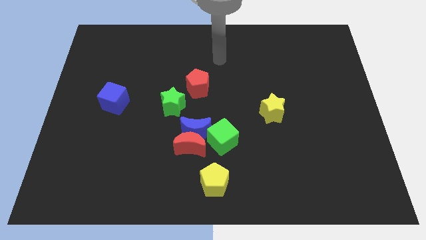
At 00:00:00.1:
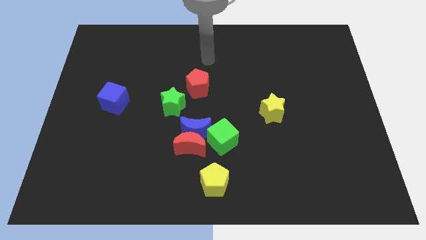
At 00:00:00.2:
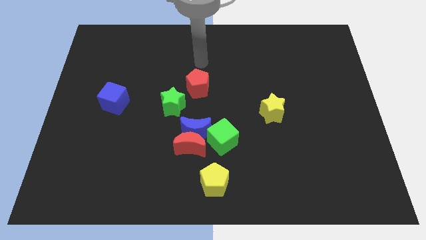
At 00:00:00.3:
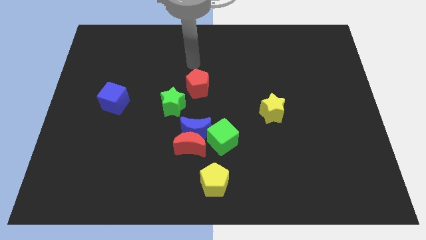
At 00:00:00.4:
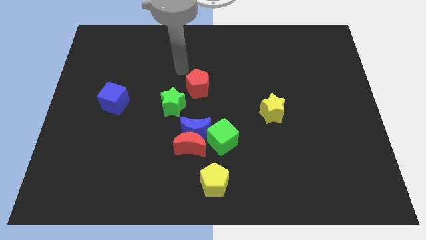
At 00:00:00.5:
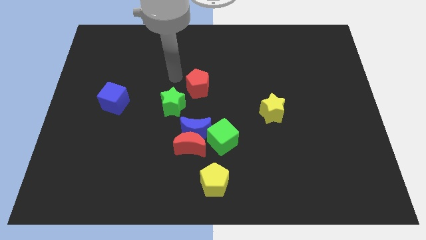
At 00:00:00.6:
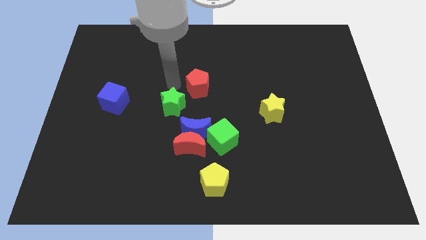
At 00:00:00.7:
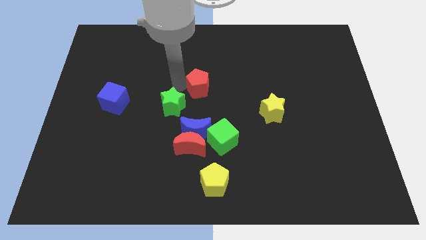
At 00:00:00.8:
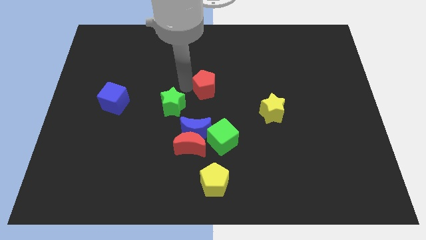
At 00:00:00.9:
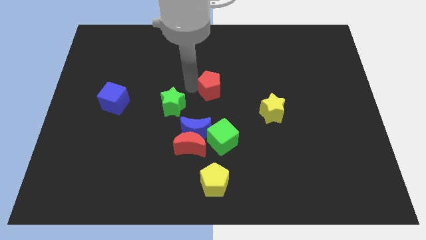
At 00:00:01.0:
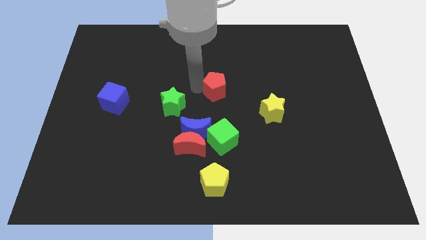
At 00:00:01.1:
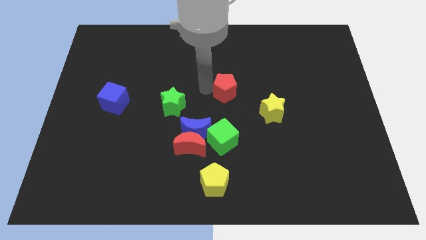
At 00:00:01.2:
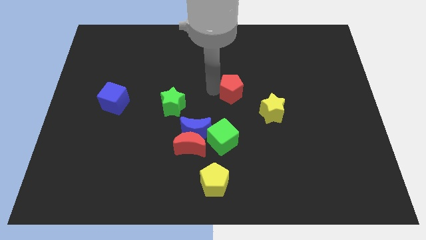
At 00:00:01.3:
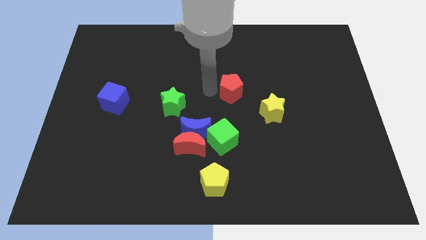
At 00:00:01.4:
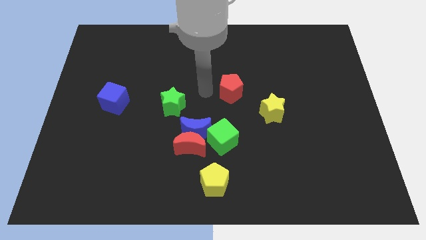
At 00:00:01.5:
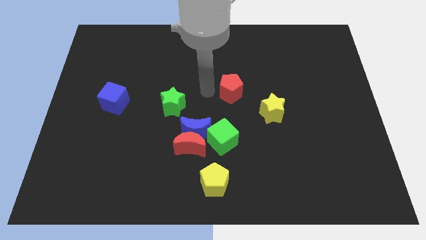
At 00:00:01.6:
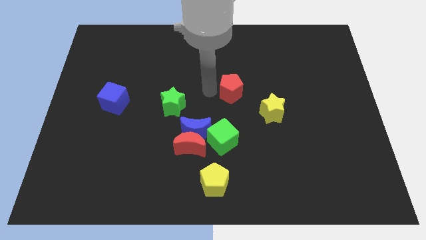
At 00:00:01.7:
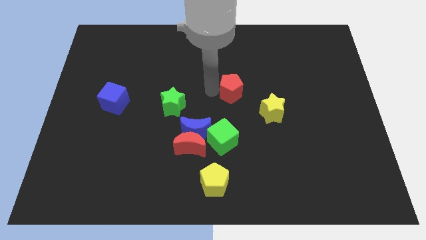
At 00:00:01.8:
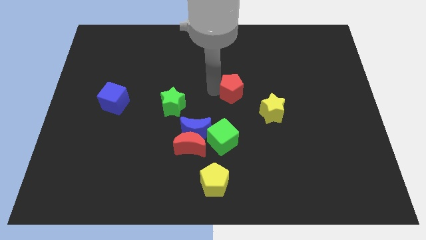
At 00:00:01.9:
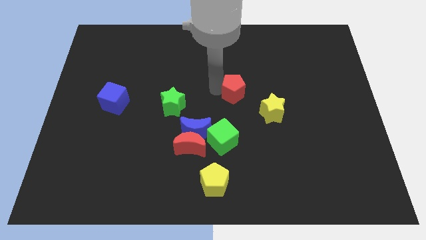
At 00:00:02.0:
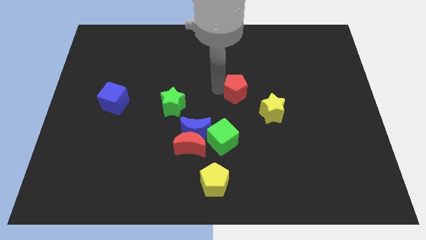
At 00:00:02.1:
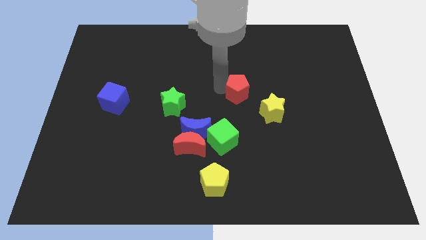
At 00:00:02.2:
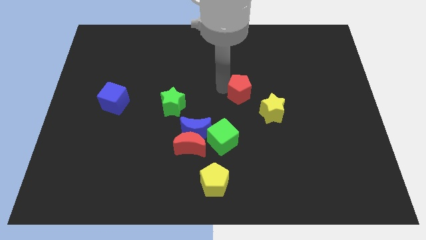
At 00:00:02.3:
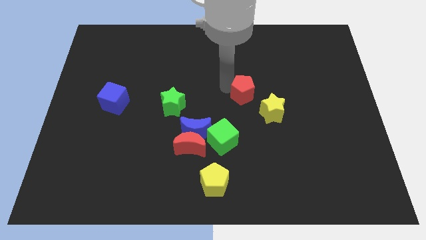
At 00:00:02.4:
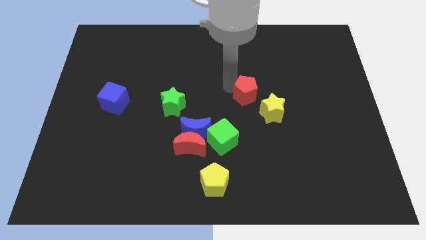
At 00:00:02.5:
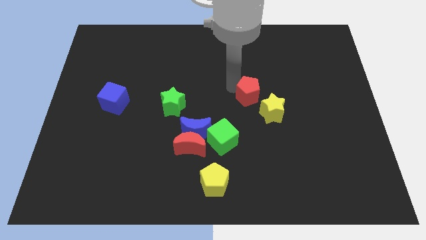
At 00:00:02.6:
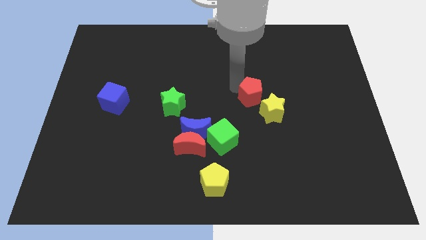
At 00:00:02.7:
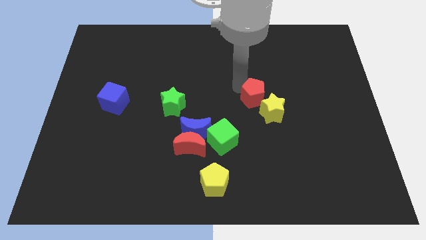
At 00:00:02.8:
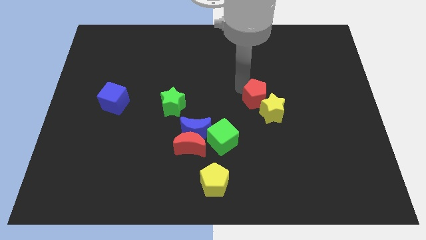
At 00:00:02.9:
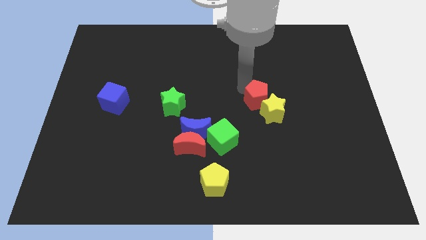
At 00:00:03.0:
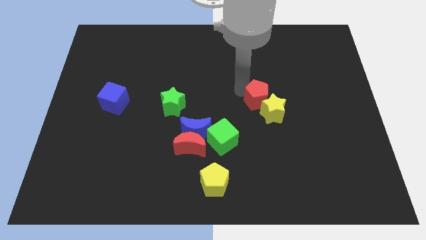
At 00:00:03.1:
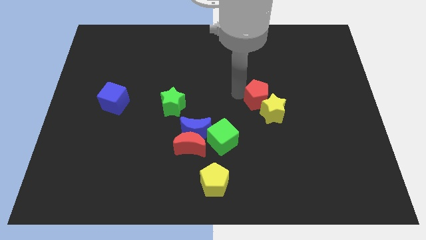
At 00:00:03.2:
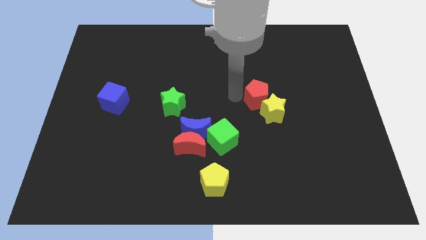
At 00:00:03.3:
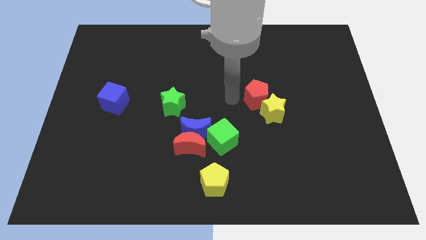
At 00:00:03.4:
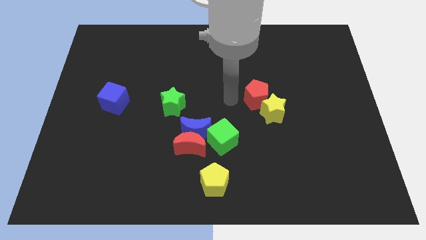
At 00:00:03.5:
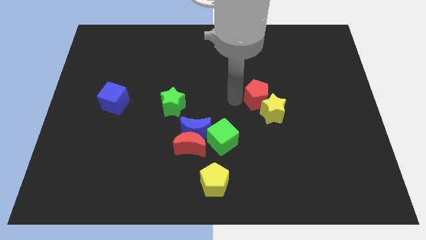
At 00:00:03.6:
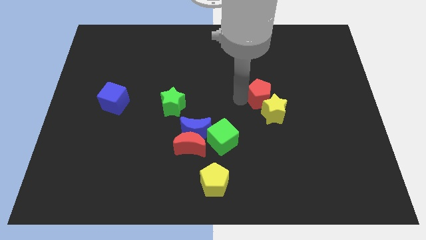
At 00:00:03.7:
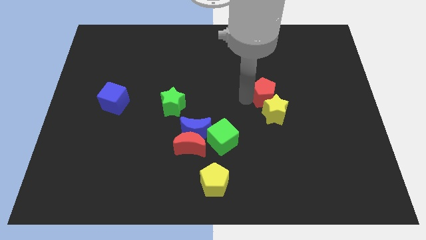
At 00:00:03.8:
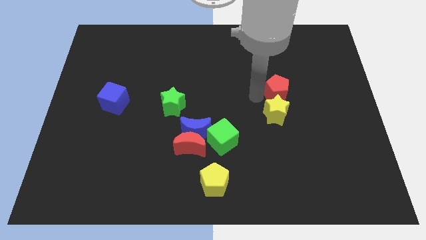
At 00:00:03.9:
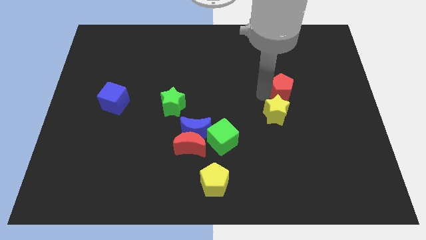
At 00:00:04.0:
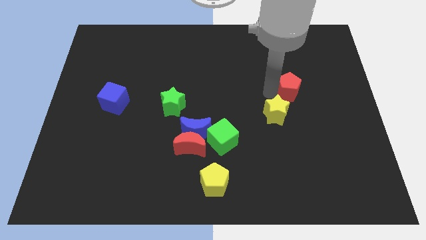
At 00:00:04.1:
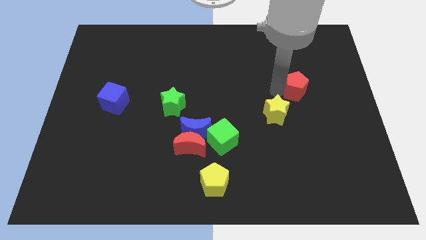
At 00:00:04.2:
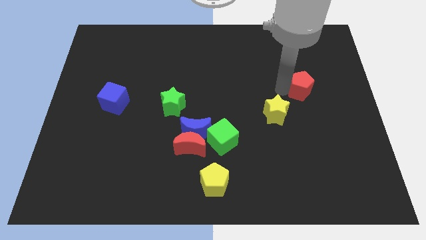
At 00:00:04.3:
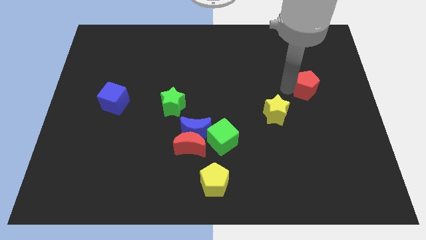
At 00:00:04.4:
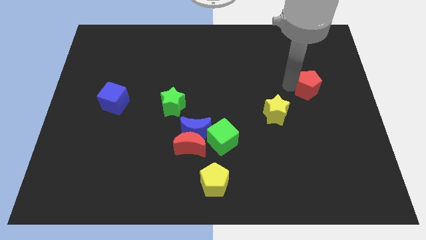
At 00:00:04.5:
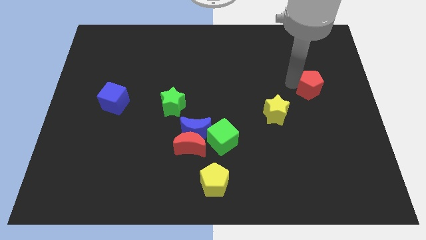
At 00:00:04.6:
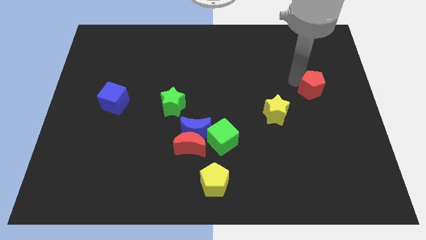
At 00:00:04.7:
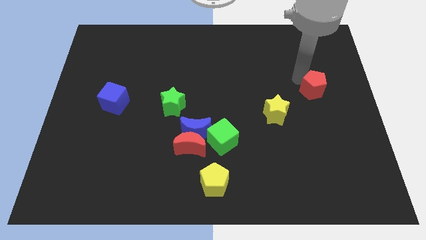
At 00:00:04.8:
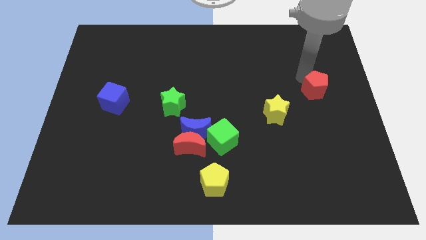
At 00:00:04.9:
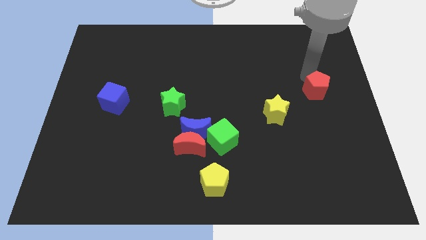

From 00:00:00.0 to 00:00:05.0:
move the red pentagon to the center right
